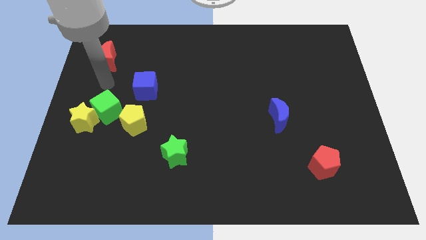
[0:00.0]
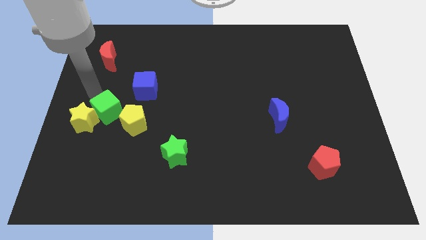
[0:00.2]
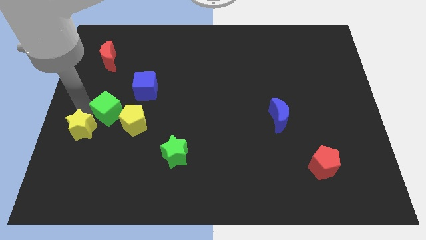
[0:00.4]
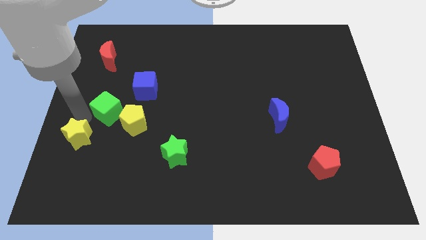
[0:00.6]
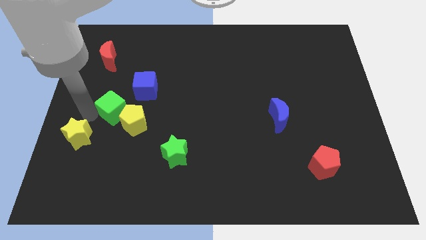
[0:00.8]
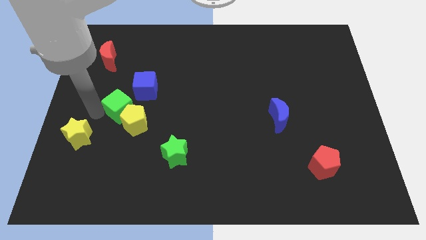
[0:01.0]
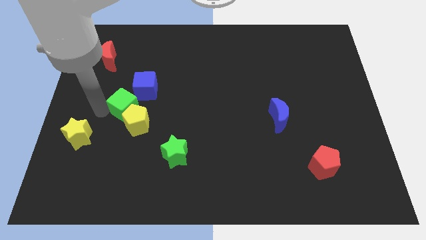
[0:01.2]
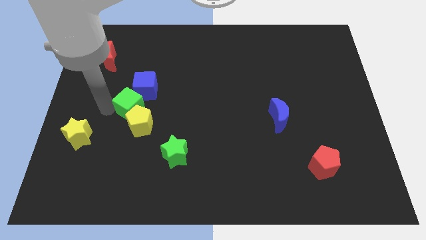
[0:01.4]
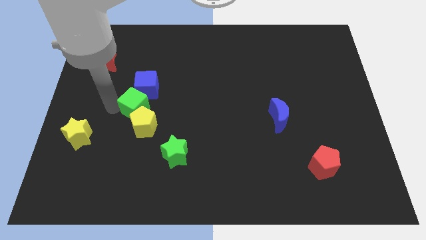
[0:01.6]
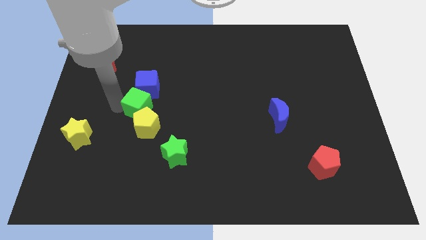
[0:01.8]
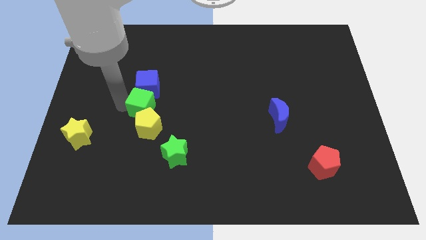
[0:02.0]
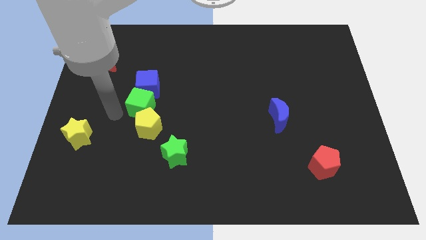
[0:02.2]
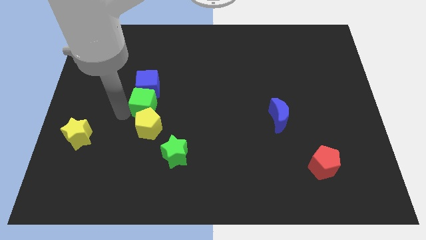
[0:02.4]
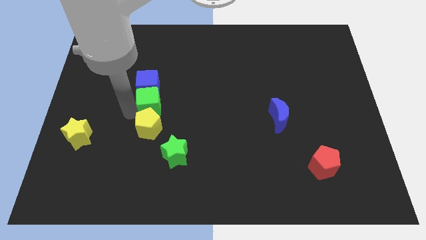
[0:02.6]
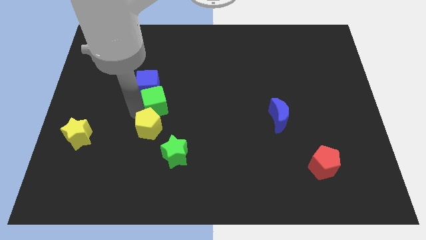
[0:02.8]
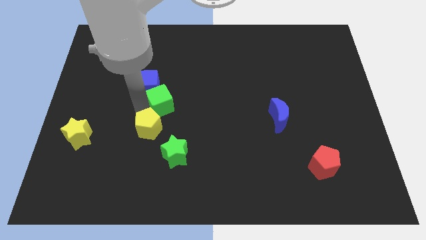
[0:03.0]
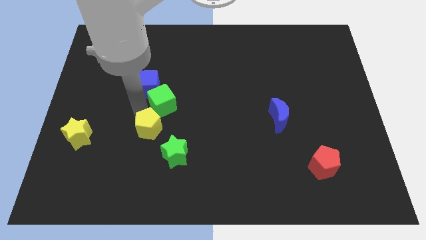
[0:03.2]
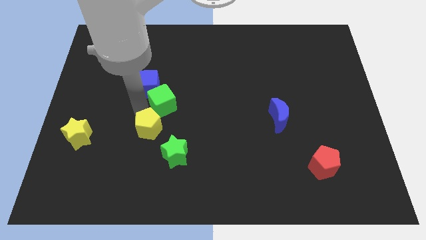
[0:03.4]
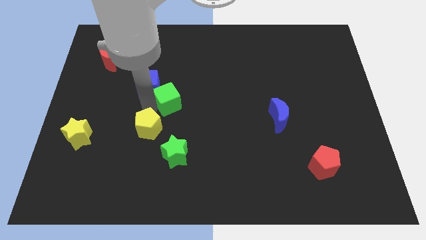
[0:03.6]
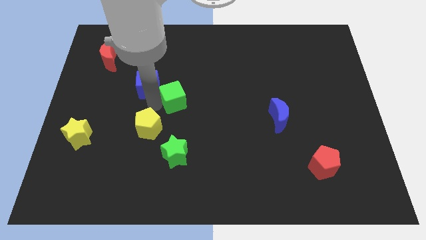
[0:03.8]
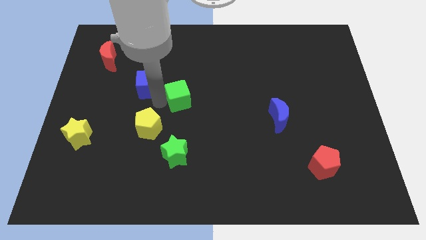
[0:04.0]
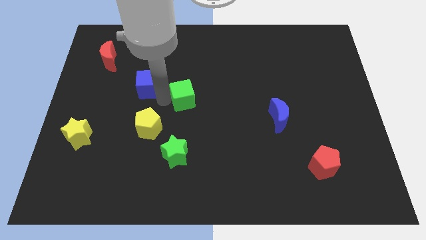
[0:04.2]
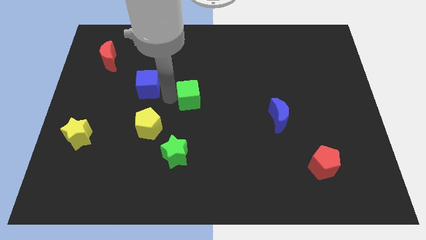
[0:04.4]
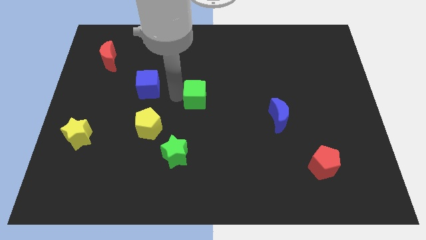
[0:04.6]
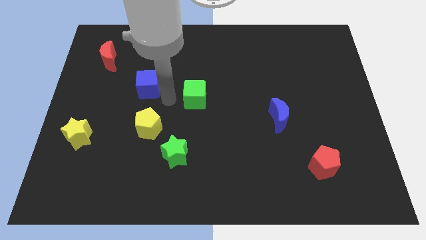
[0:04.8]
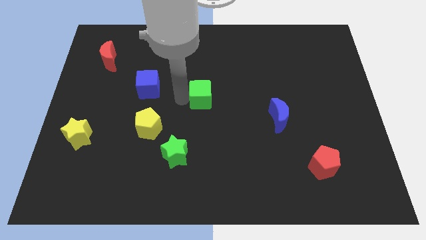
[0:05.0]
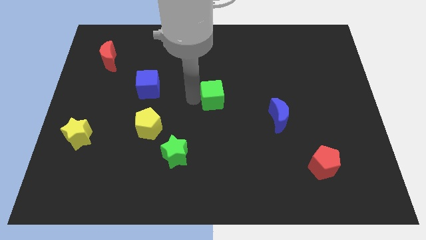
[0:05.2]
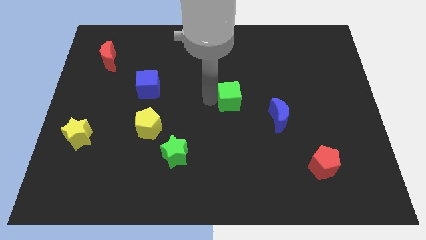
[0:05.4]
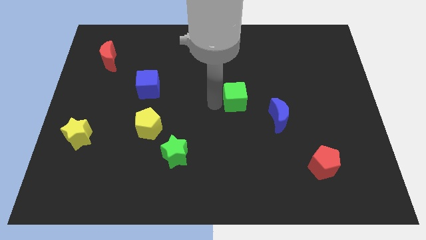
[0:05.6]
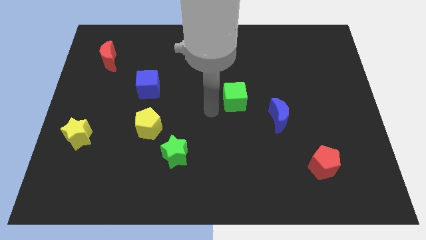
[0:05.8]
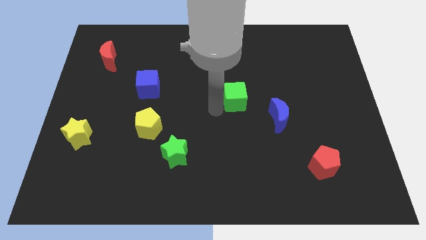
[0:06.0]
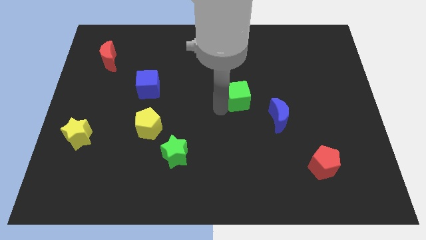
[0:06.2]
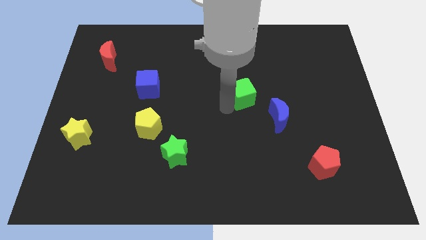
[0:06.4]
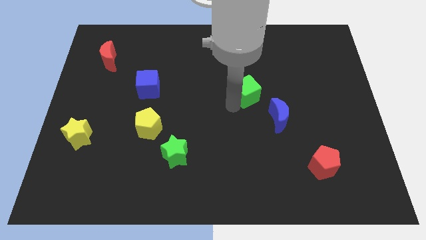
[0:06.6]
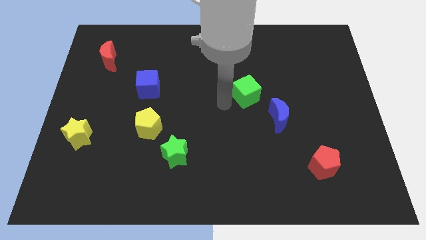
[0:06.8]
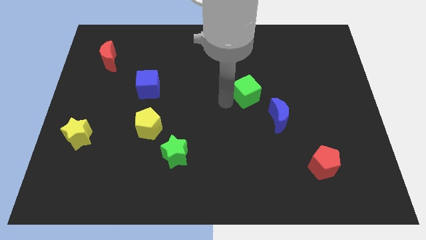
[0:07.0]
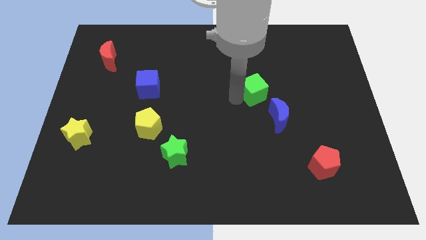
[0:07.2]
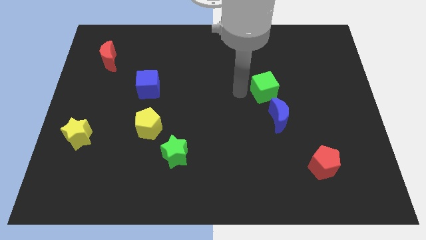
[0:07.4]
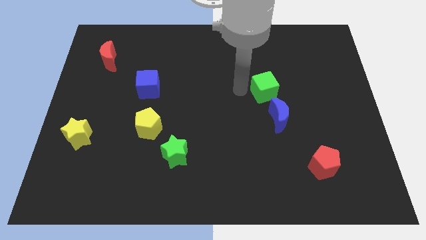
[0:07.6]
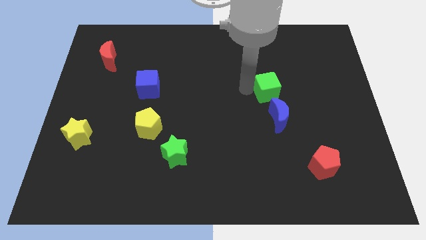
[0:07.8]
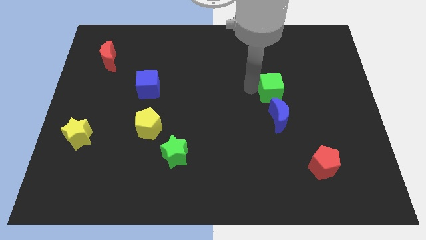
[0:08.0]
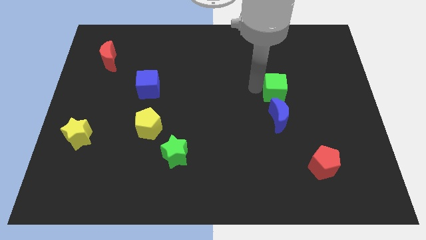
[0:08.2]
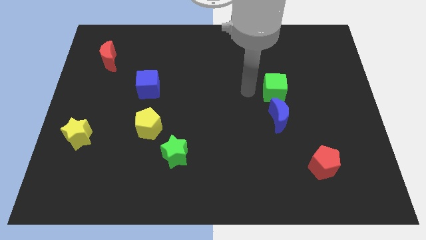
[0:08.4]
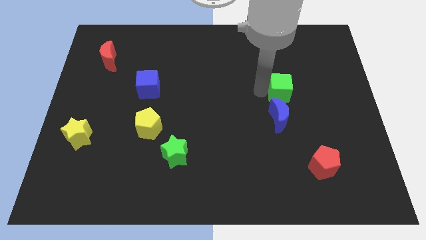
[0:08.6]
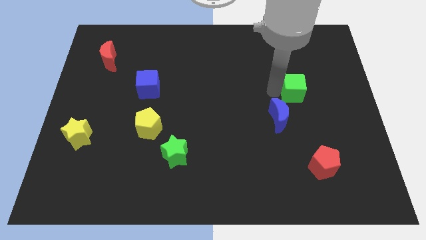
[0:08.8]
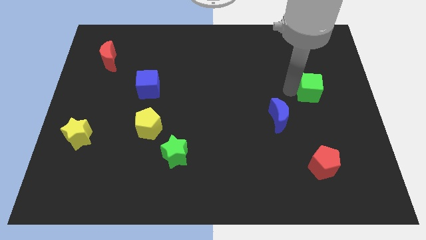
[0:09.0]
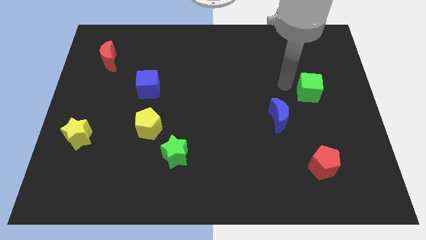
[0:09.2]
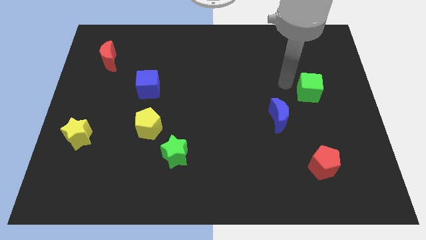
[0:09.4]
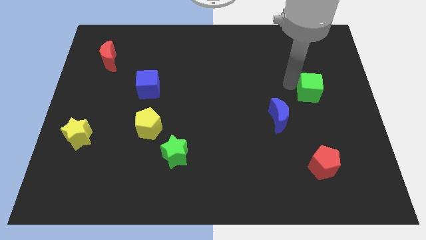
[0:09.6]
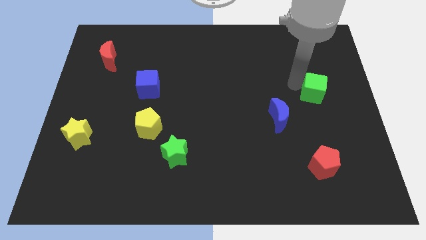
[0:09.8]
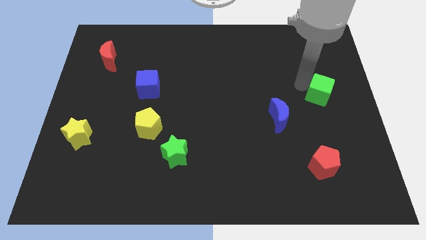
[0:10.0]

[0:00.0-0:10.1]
push the green cube to the center right

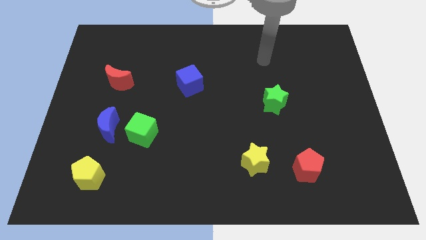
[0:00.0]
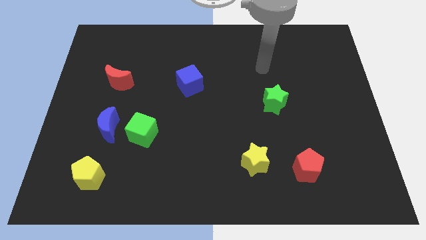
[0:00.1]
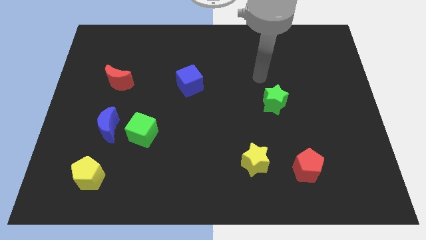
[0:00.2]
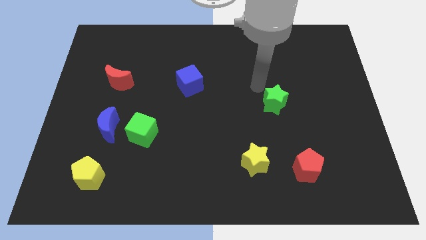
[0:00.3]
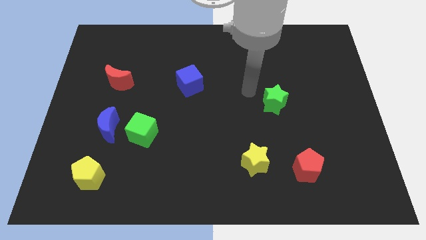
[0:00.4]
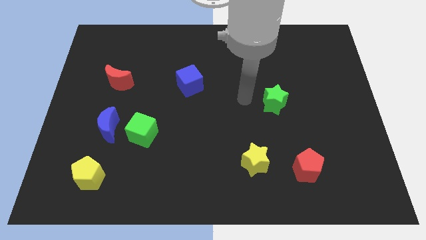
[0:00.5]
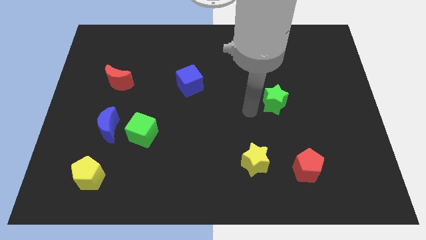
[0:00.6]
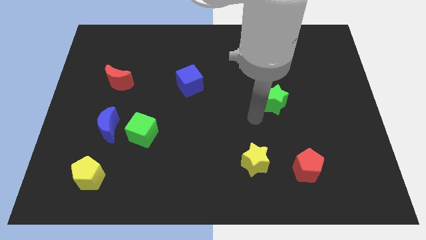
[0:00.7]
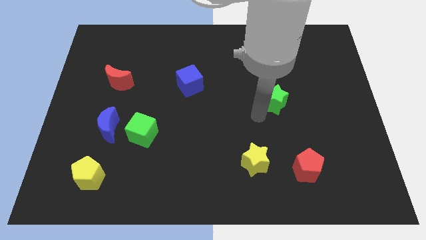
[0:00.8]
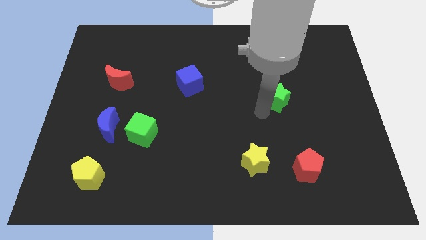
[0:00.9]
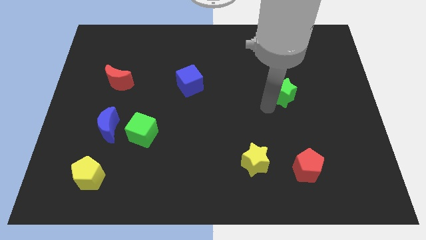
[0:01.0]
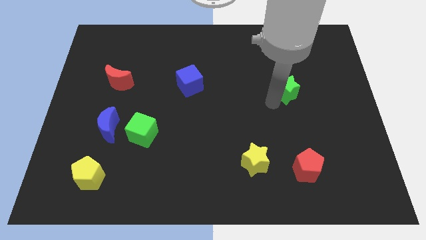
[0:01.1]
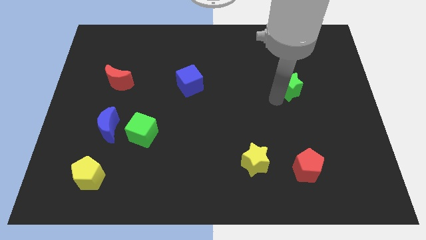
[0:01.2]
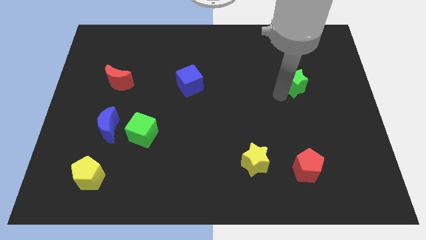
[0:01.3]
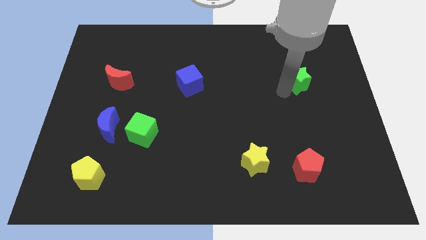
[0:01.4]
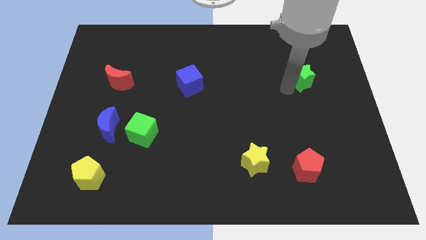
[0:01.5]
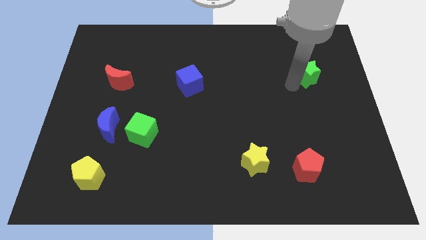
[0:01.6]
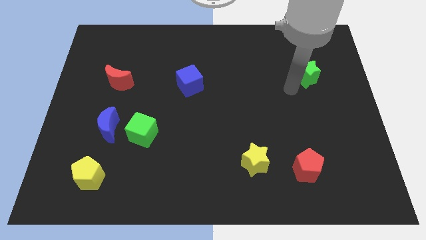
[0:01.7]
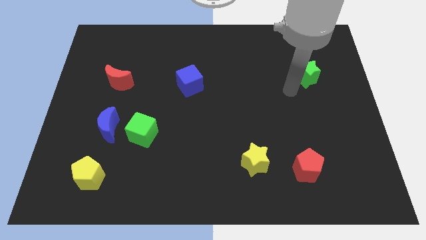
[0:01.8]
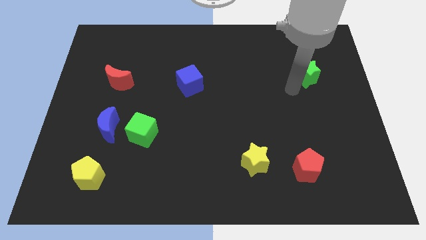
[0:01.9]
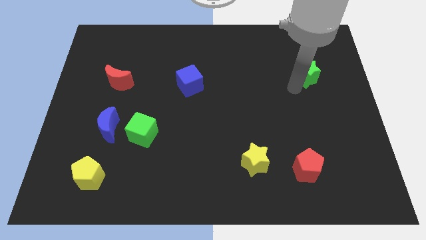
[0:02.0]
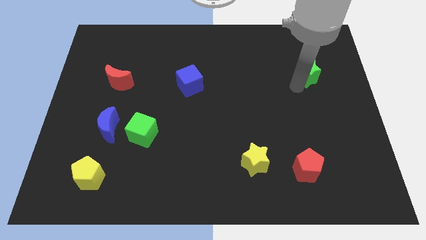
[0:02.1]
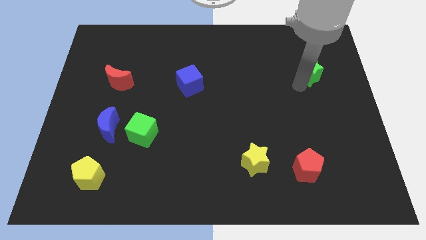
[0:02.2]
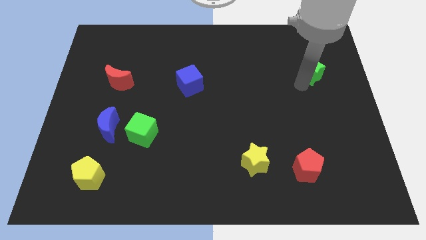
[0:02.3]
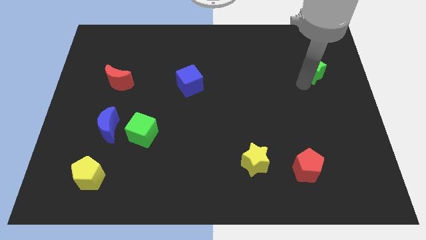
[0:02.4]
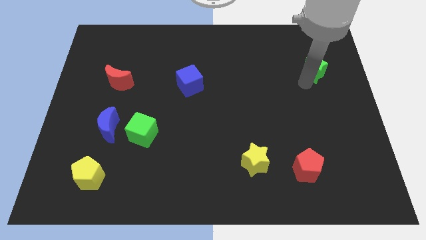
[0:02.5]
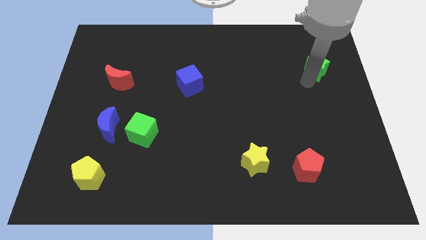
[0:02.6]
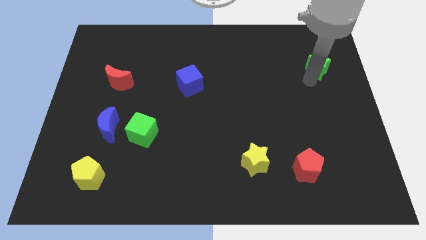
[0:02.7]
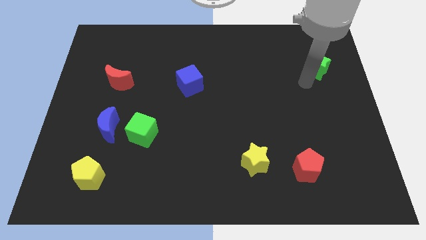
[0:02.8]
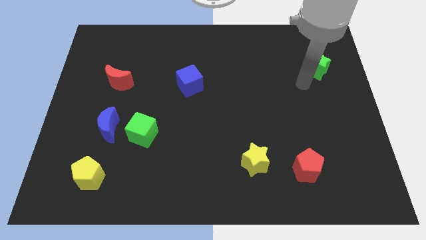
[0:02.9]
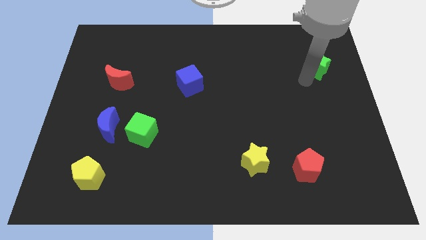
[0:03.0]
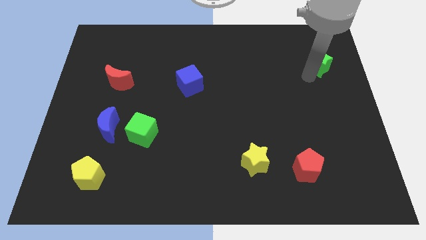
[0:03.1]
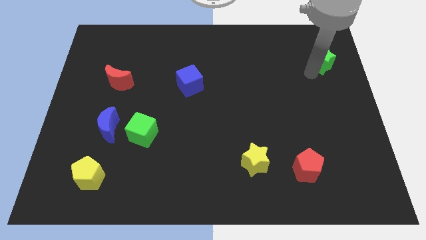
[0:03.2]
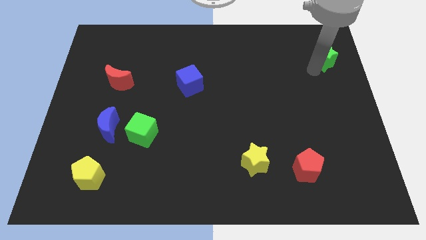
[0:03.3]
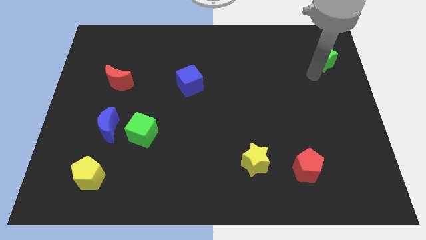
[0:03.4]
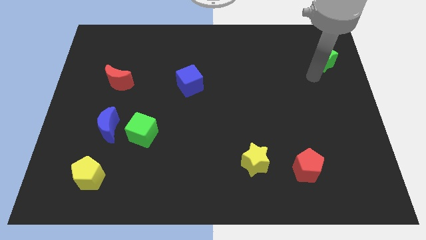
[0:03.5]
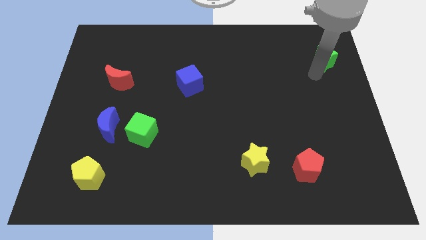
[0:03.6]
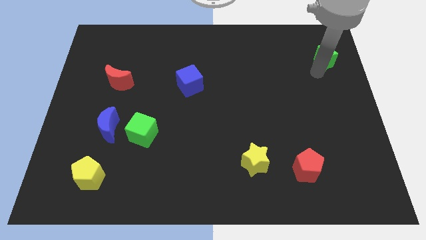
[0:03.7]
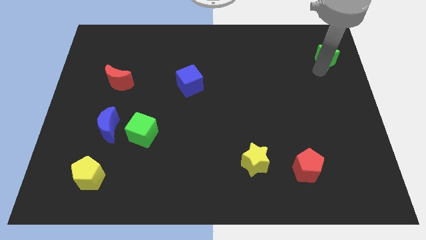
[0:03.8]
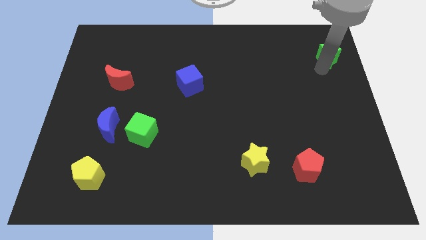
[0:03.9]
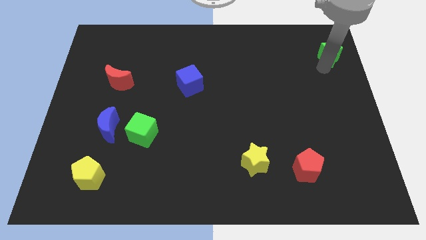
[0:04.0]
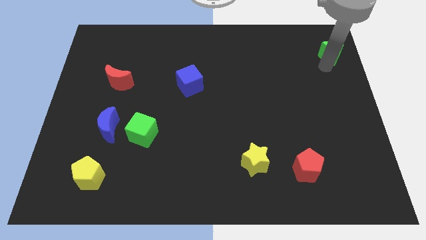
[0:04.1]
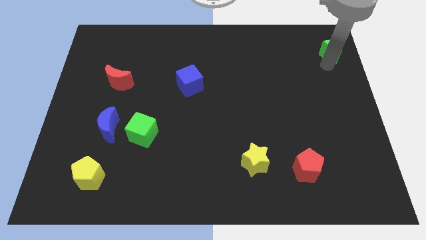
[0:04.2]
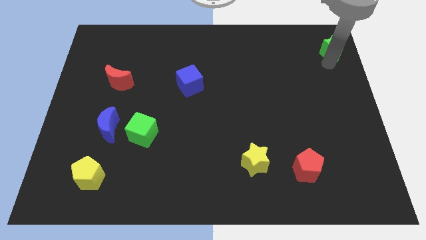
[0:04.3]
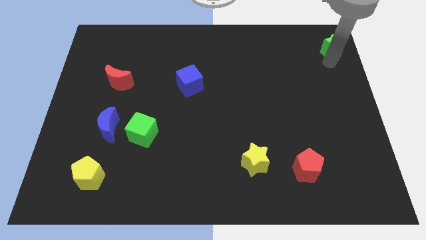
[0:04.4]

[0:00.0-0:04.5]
push the green star to the top right of the board
